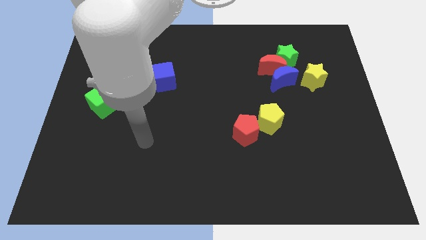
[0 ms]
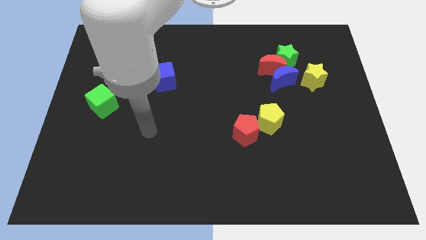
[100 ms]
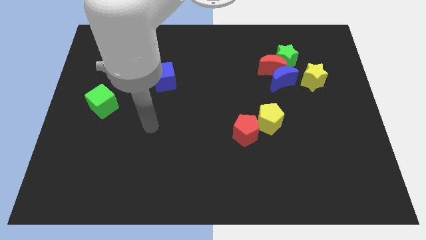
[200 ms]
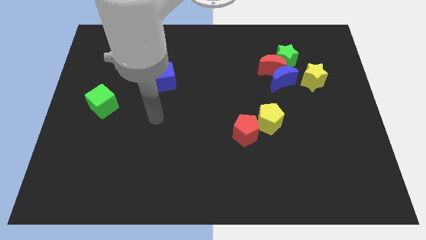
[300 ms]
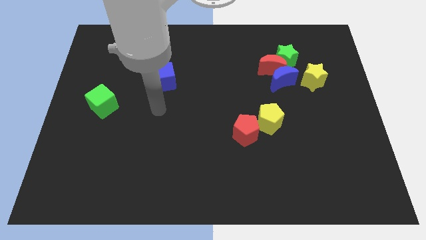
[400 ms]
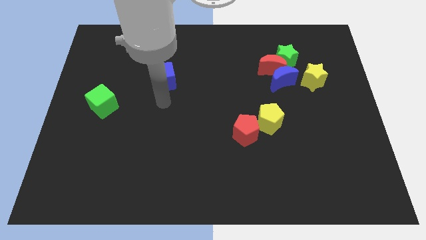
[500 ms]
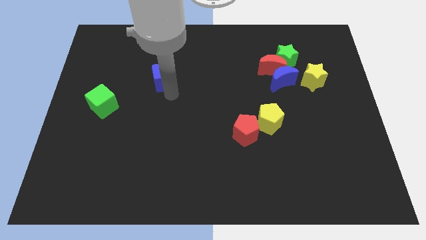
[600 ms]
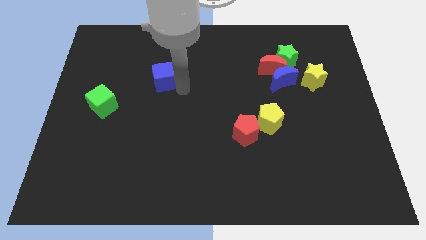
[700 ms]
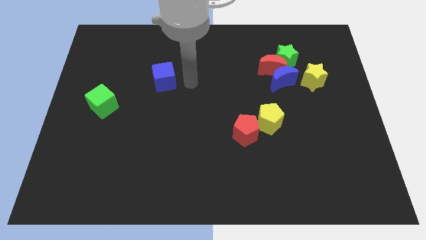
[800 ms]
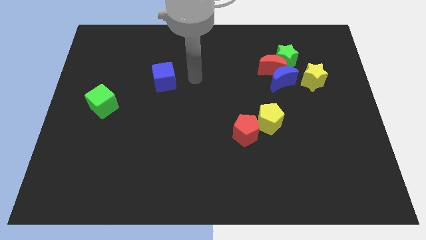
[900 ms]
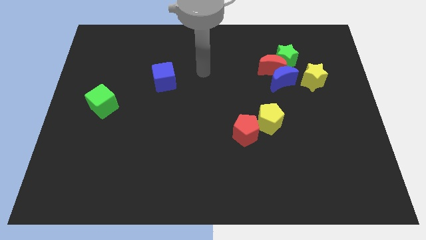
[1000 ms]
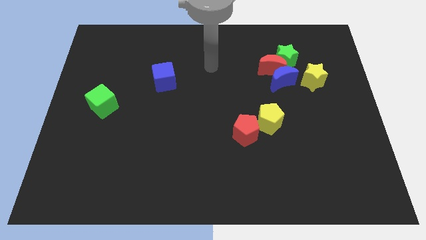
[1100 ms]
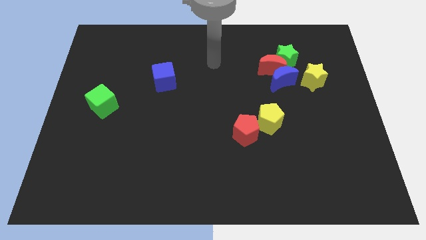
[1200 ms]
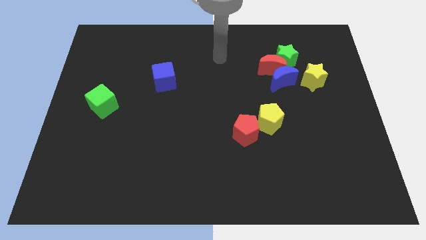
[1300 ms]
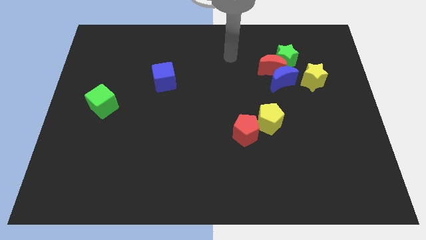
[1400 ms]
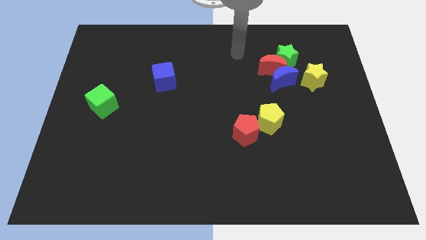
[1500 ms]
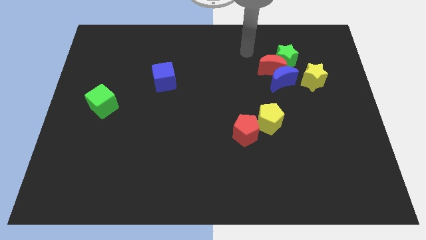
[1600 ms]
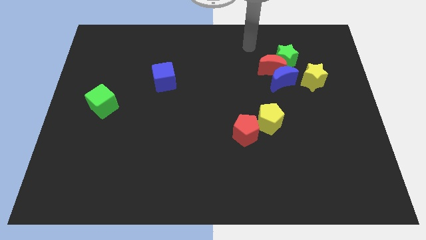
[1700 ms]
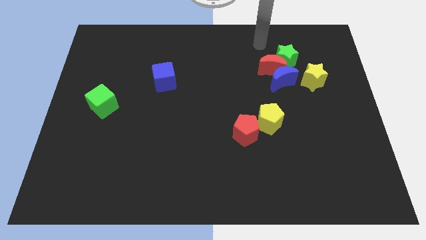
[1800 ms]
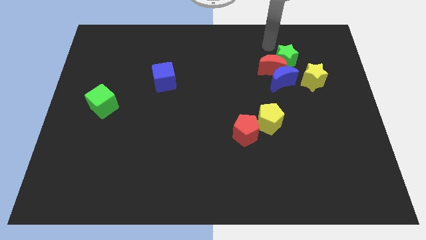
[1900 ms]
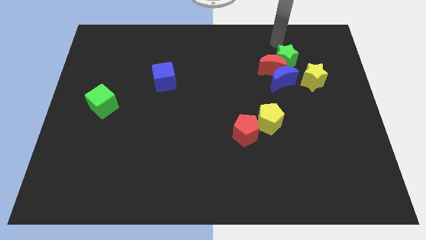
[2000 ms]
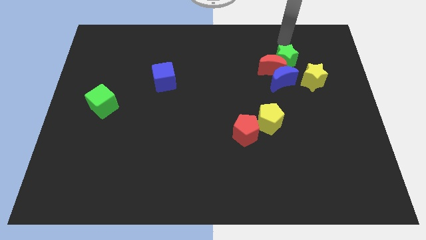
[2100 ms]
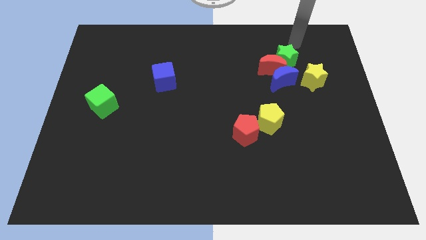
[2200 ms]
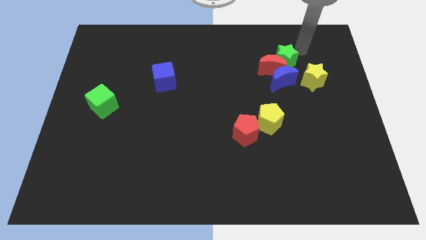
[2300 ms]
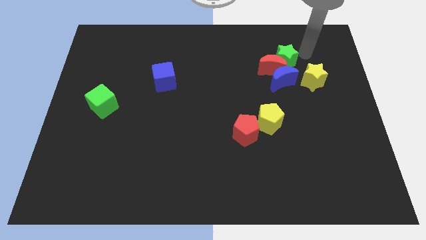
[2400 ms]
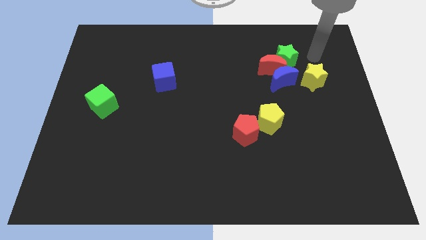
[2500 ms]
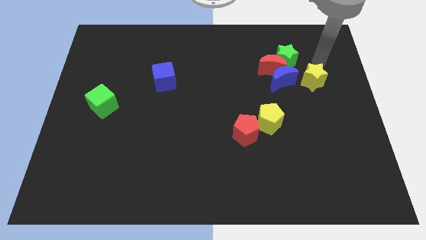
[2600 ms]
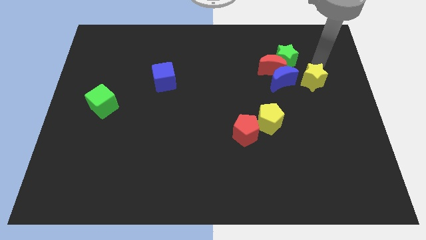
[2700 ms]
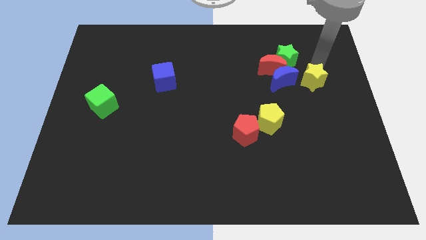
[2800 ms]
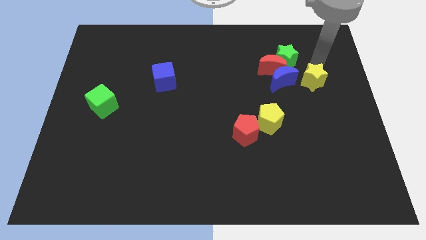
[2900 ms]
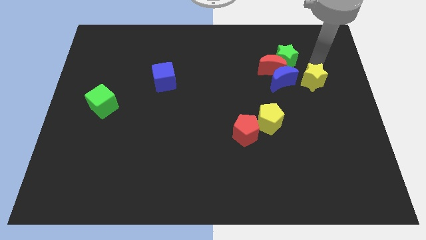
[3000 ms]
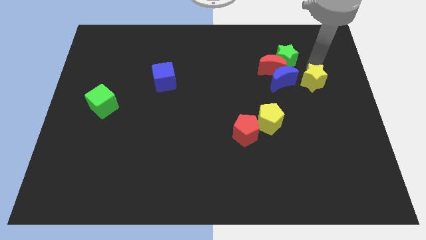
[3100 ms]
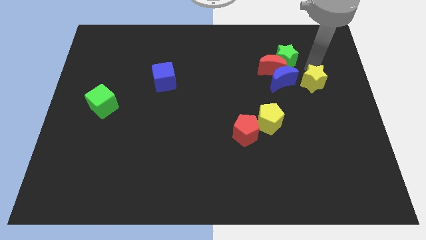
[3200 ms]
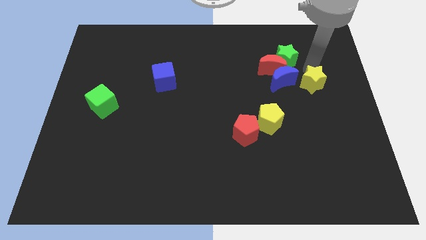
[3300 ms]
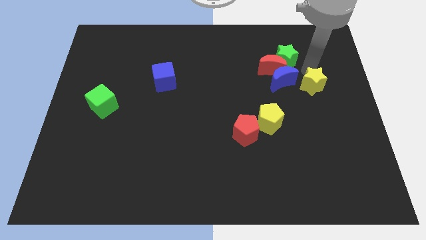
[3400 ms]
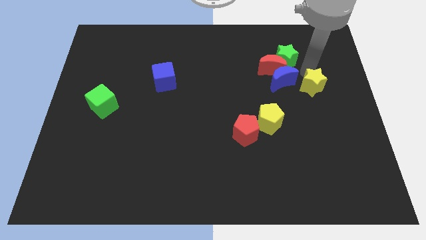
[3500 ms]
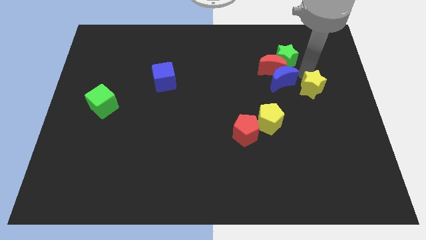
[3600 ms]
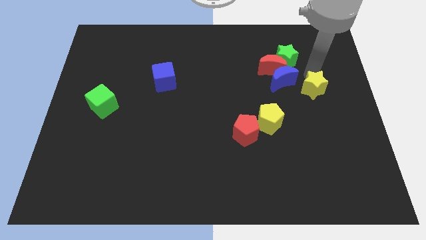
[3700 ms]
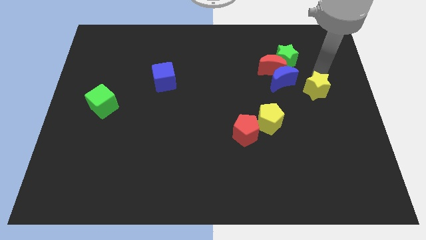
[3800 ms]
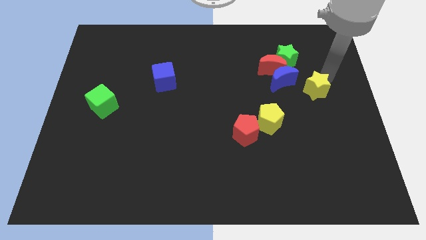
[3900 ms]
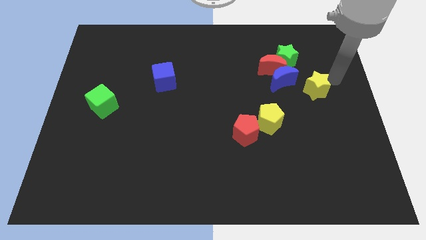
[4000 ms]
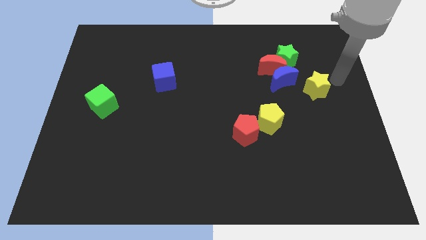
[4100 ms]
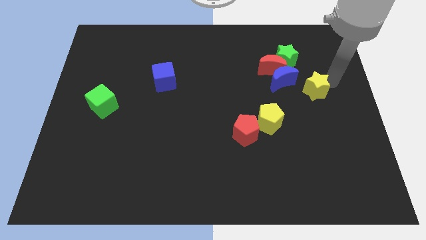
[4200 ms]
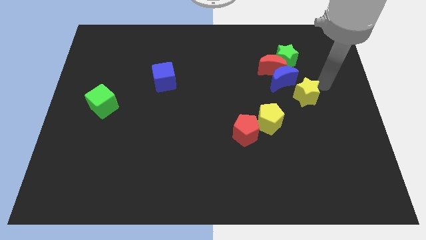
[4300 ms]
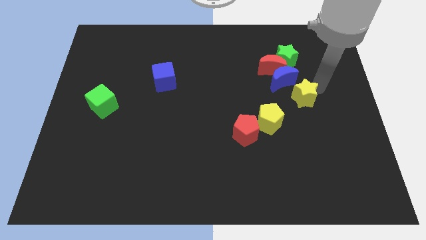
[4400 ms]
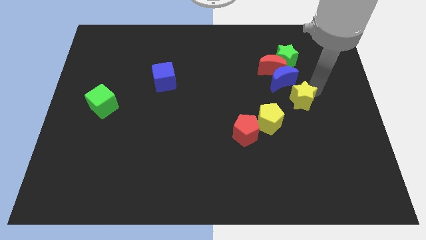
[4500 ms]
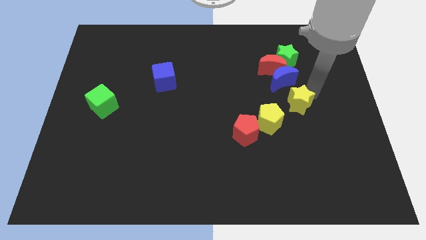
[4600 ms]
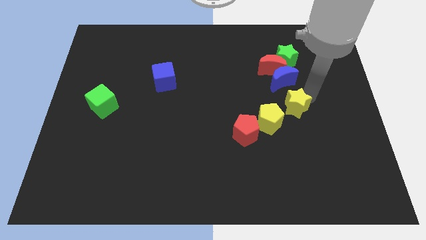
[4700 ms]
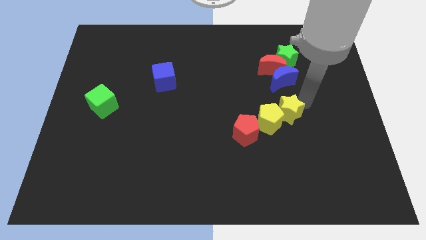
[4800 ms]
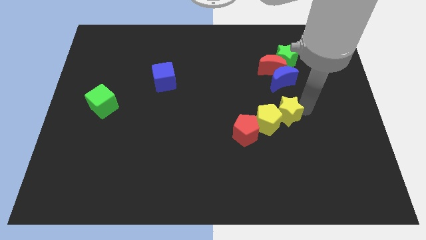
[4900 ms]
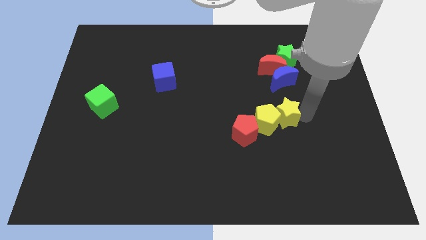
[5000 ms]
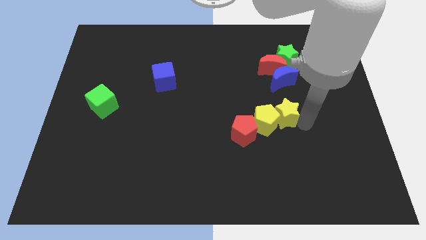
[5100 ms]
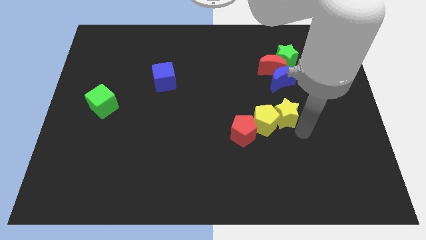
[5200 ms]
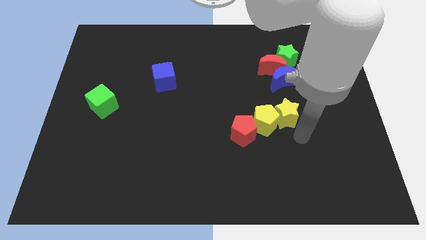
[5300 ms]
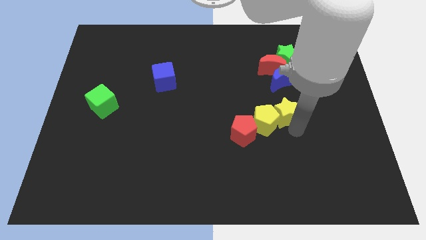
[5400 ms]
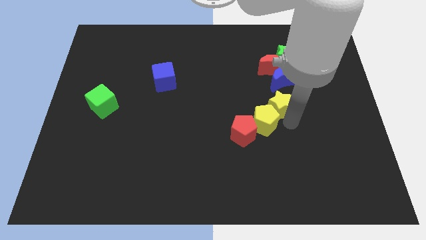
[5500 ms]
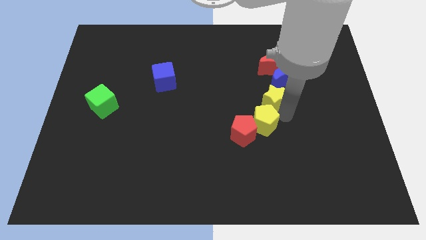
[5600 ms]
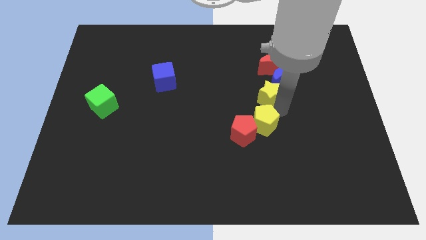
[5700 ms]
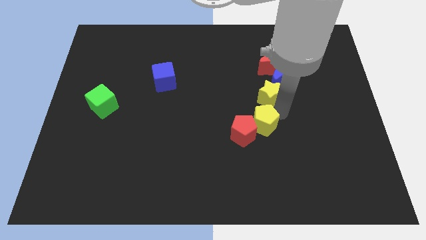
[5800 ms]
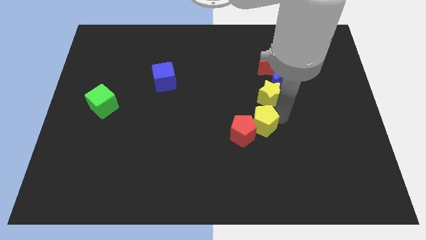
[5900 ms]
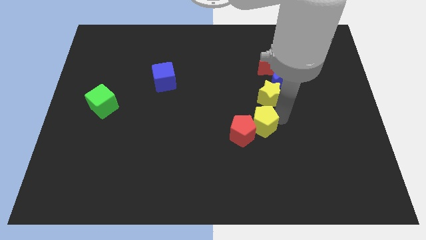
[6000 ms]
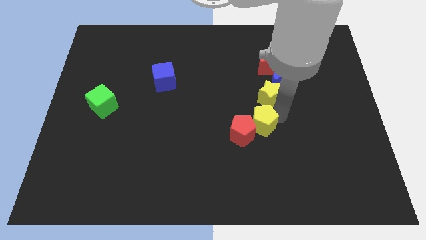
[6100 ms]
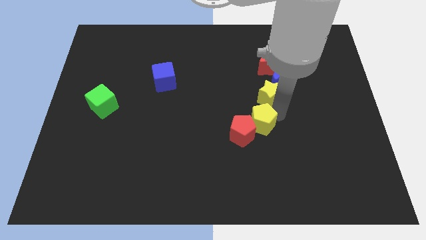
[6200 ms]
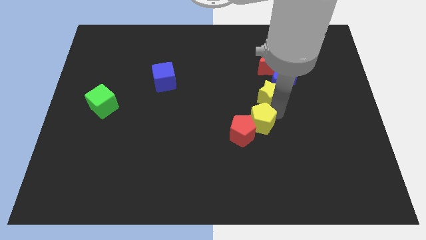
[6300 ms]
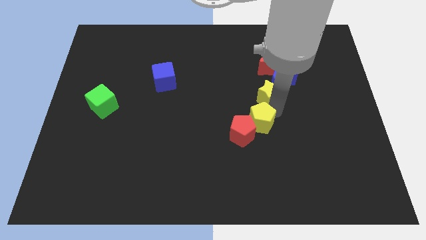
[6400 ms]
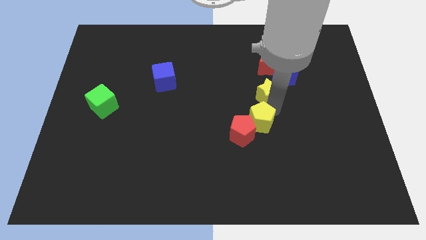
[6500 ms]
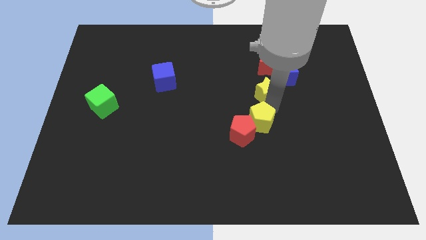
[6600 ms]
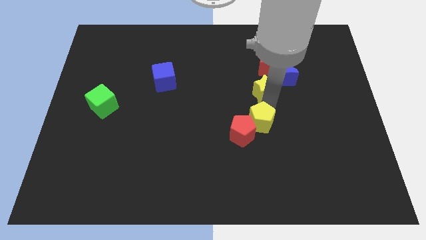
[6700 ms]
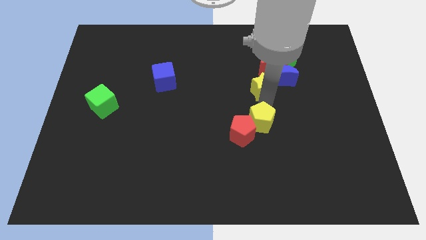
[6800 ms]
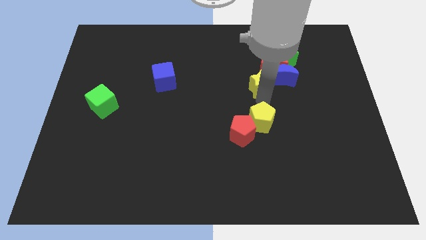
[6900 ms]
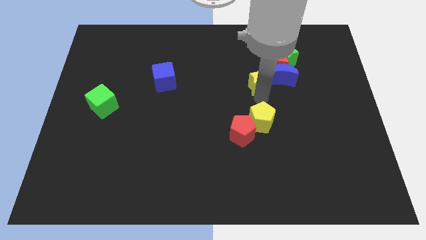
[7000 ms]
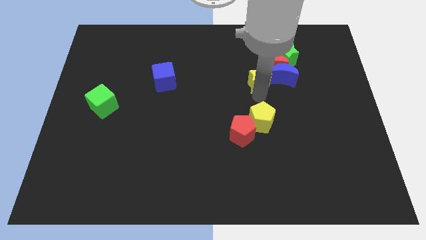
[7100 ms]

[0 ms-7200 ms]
put the yellow star next to the red moon
